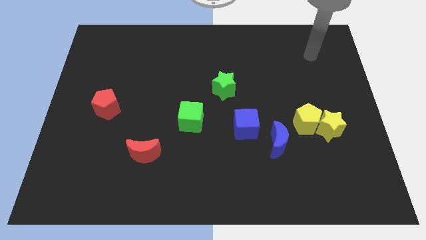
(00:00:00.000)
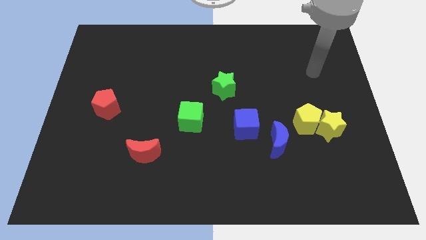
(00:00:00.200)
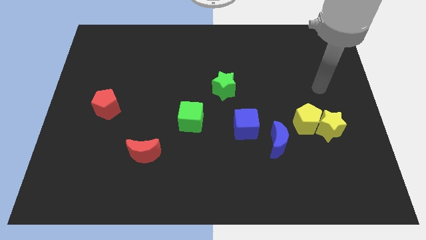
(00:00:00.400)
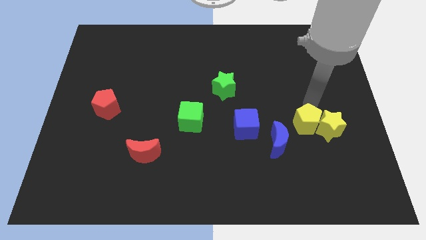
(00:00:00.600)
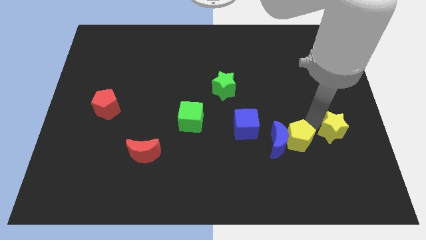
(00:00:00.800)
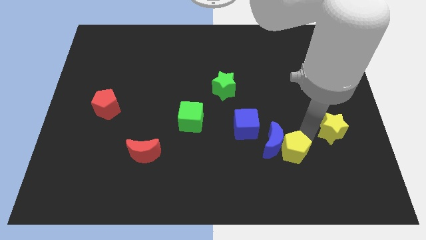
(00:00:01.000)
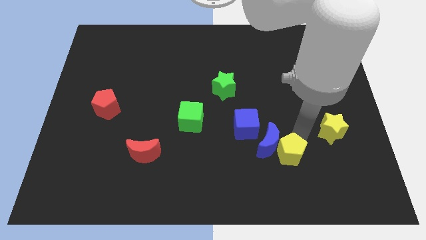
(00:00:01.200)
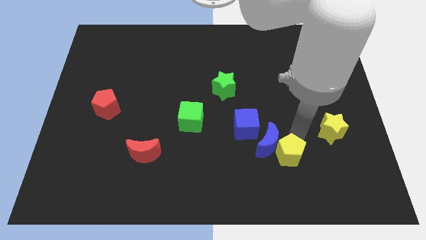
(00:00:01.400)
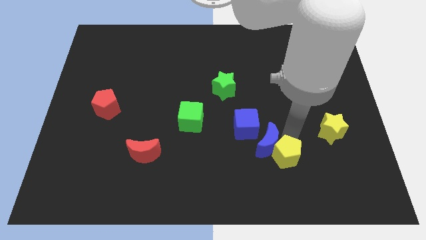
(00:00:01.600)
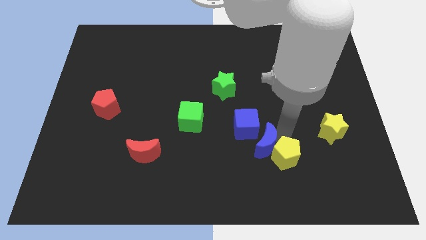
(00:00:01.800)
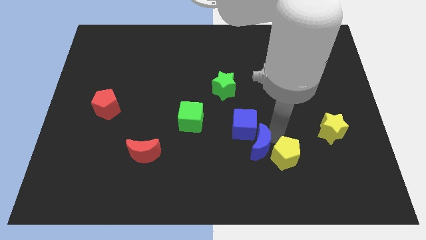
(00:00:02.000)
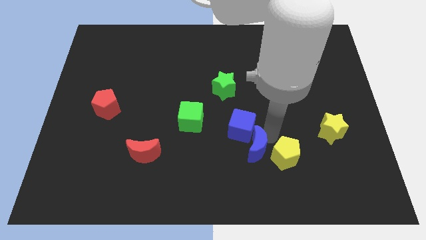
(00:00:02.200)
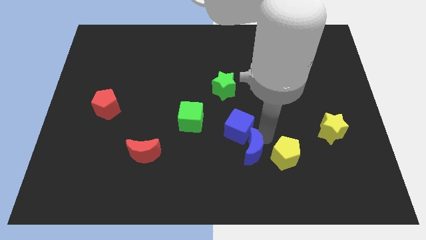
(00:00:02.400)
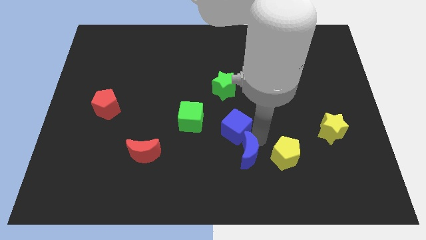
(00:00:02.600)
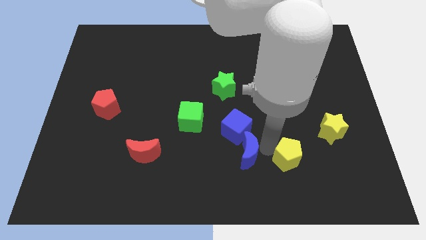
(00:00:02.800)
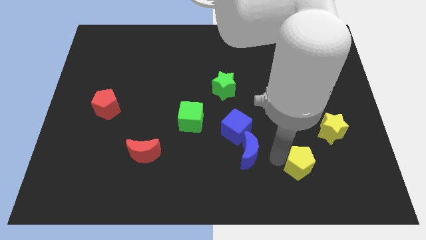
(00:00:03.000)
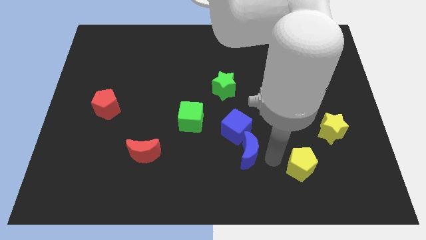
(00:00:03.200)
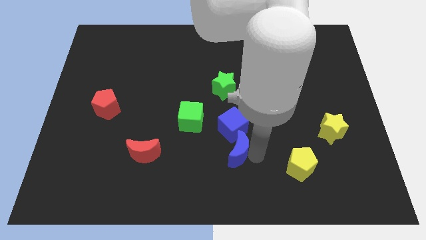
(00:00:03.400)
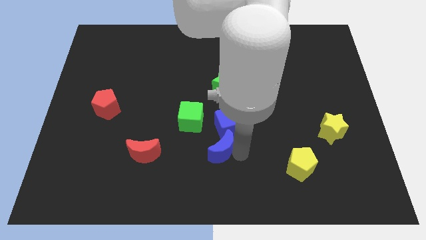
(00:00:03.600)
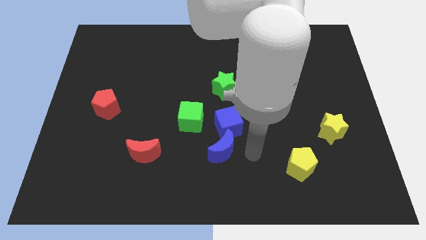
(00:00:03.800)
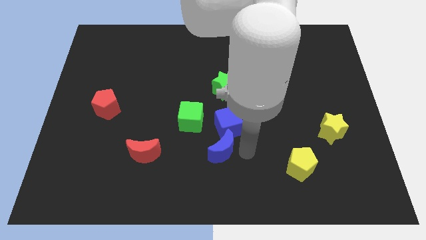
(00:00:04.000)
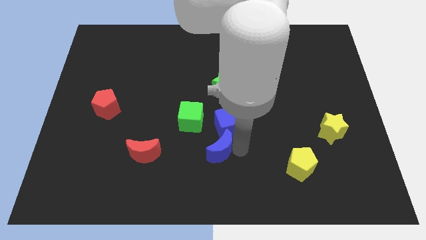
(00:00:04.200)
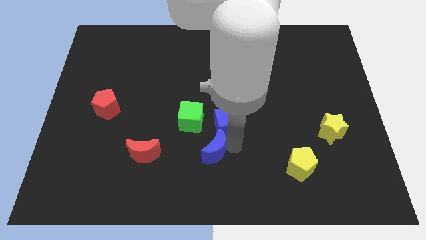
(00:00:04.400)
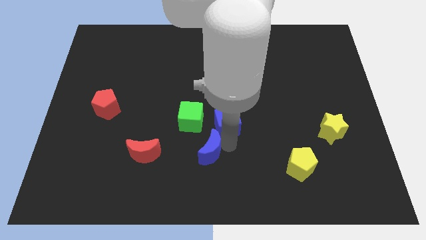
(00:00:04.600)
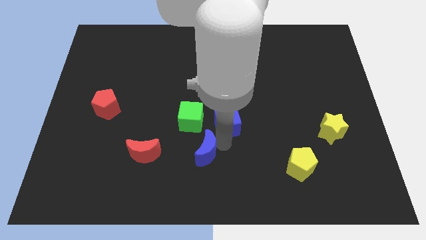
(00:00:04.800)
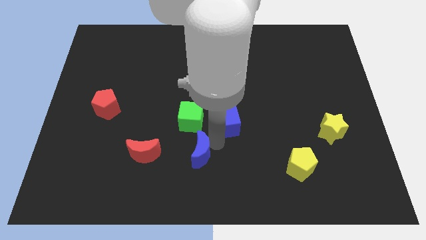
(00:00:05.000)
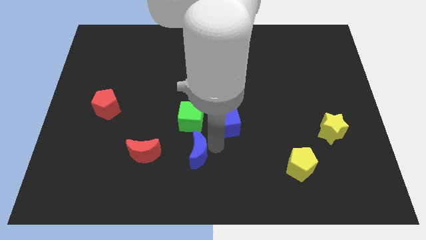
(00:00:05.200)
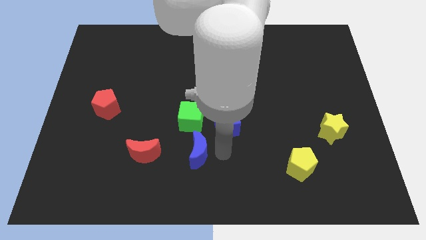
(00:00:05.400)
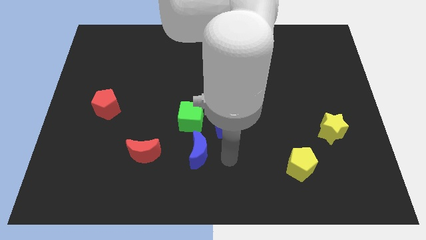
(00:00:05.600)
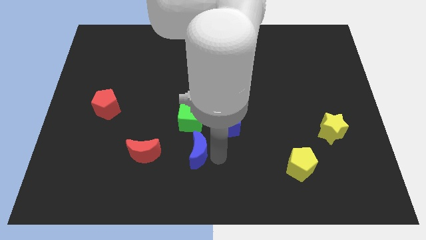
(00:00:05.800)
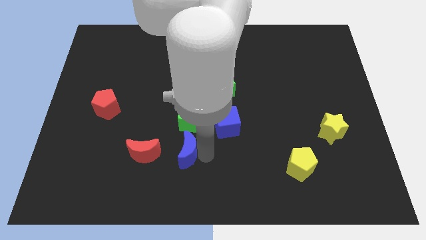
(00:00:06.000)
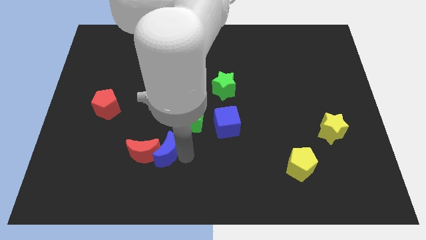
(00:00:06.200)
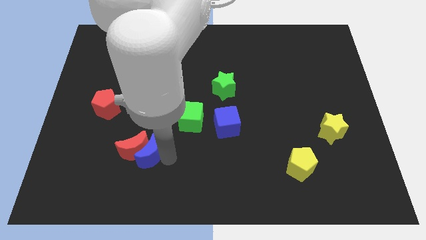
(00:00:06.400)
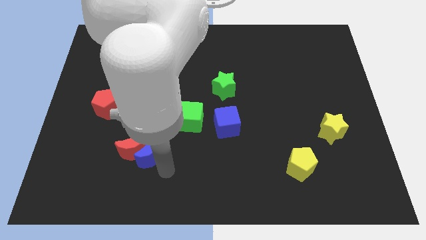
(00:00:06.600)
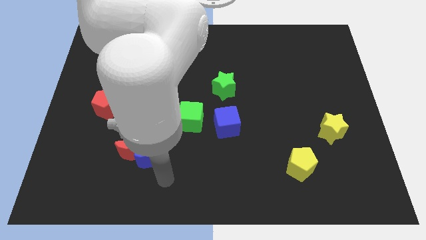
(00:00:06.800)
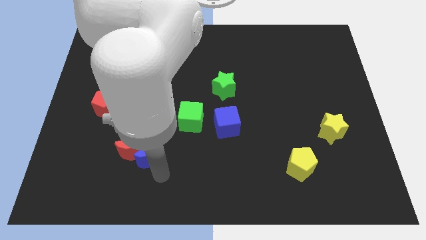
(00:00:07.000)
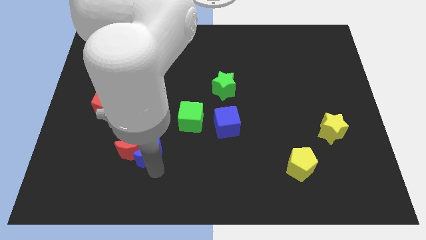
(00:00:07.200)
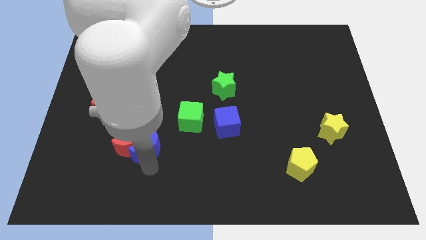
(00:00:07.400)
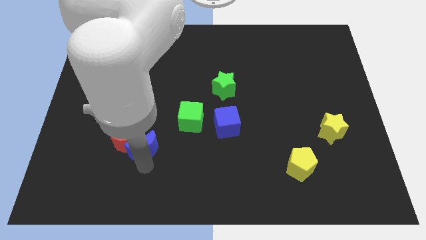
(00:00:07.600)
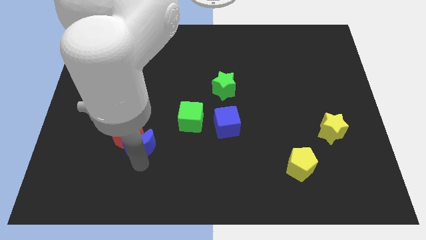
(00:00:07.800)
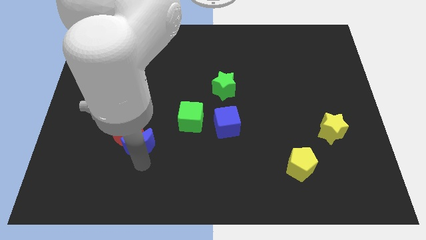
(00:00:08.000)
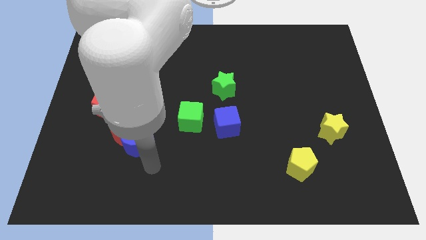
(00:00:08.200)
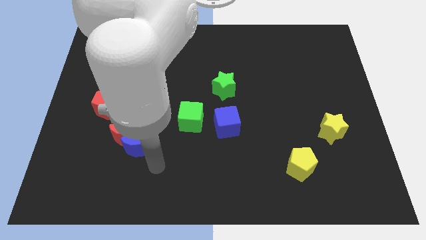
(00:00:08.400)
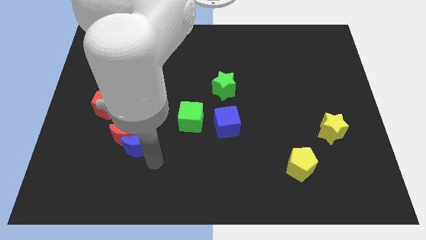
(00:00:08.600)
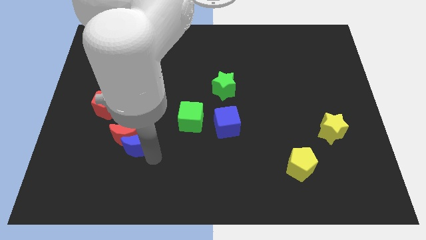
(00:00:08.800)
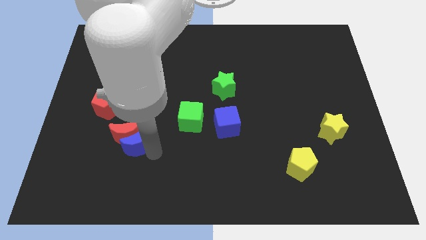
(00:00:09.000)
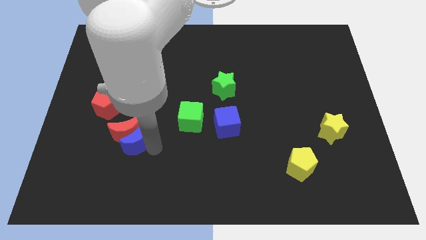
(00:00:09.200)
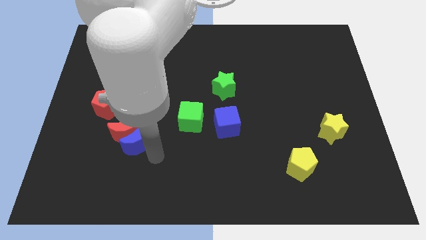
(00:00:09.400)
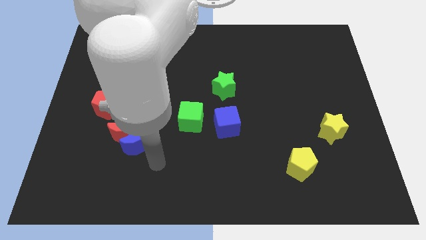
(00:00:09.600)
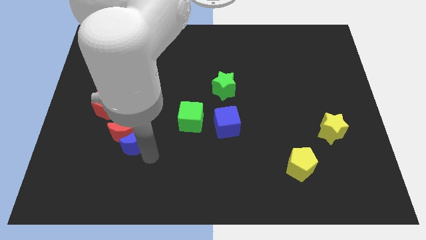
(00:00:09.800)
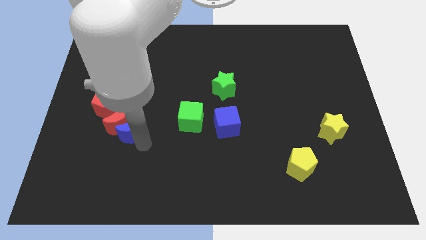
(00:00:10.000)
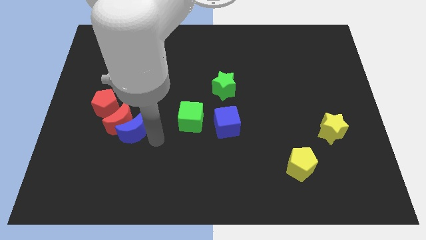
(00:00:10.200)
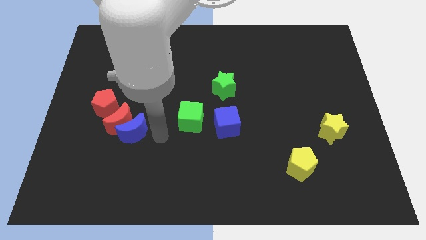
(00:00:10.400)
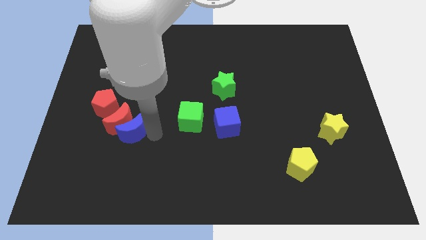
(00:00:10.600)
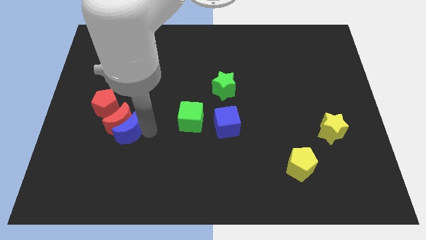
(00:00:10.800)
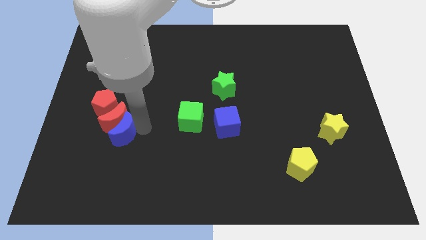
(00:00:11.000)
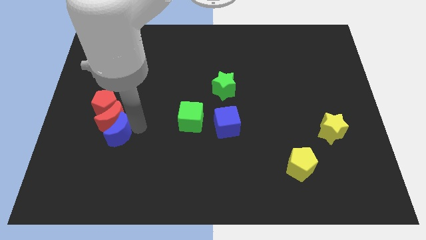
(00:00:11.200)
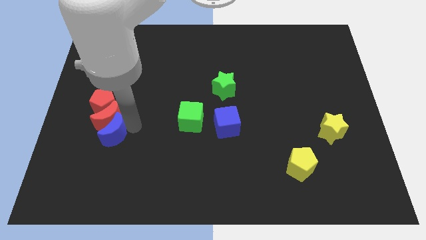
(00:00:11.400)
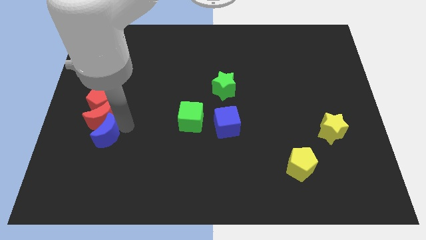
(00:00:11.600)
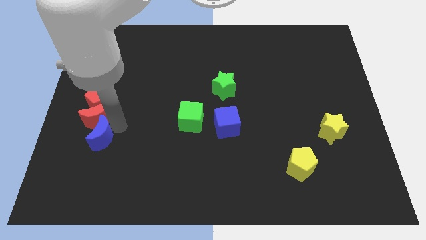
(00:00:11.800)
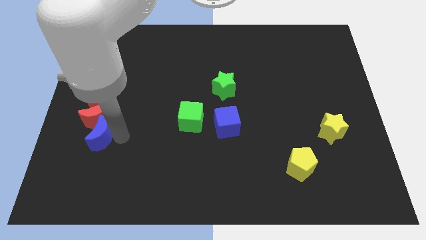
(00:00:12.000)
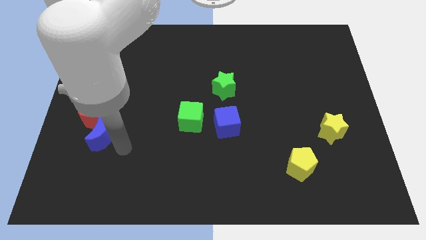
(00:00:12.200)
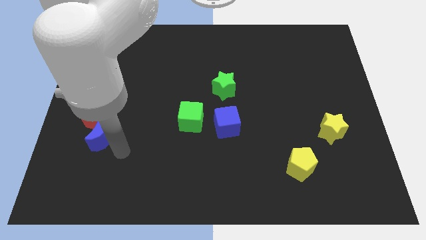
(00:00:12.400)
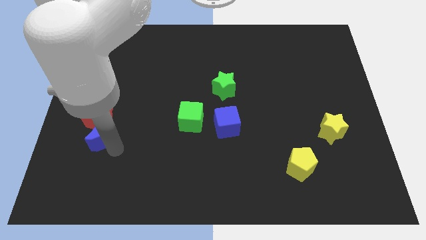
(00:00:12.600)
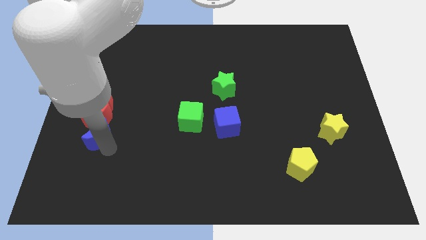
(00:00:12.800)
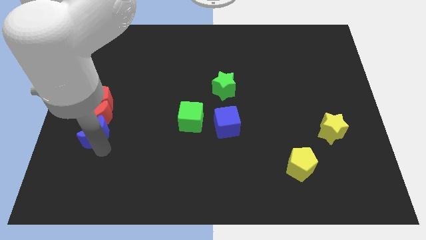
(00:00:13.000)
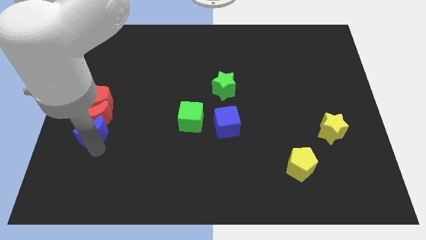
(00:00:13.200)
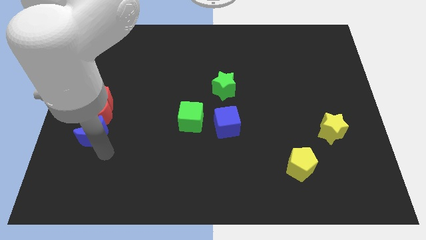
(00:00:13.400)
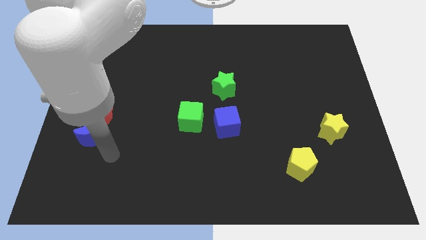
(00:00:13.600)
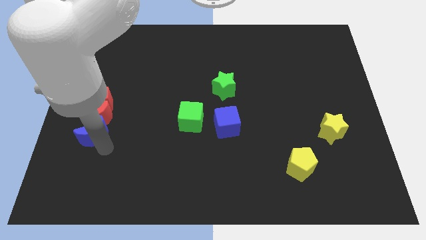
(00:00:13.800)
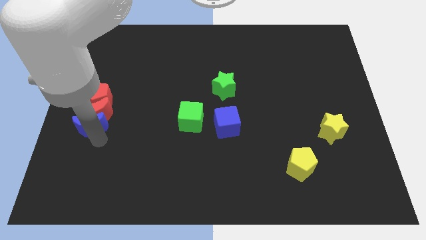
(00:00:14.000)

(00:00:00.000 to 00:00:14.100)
push the blue moon to the center left
